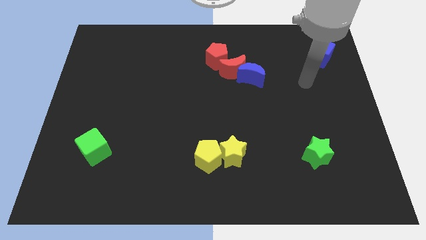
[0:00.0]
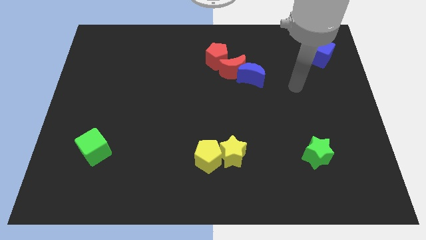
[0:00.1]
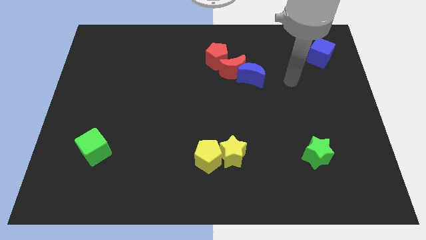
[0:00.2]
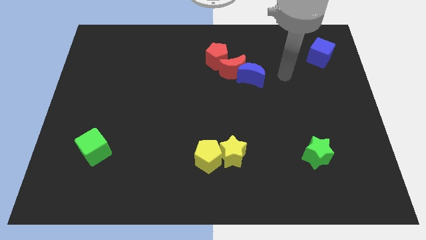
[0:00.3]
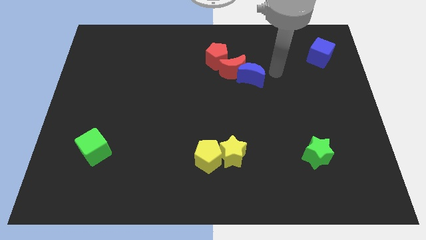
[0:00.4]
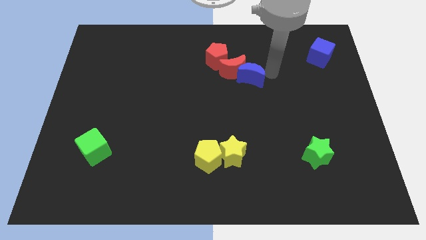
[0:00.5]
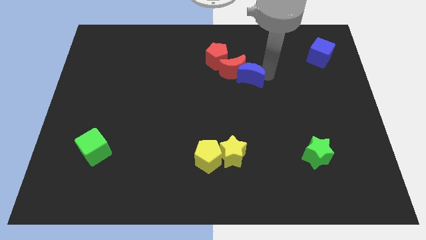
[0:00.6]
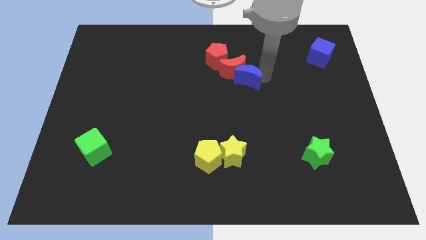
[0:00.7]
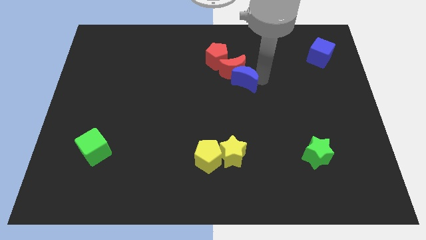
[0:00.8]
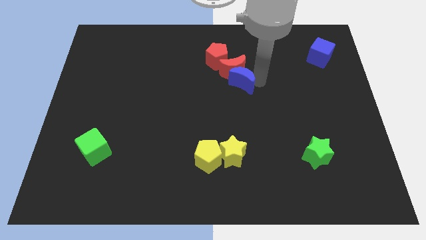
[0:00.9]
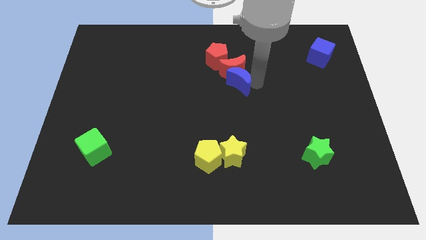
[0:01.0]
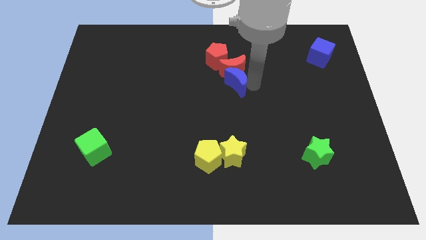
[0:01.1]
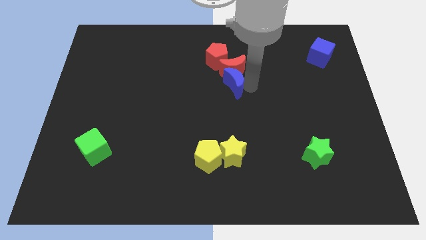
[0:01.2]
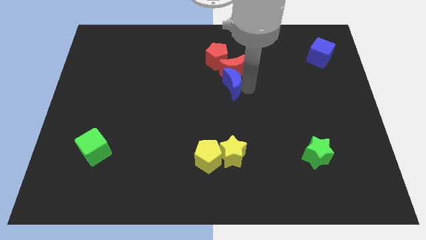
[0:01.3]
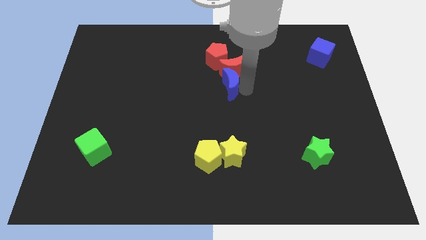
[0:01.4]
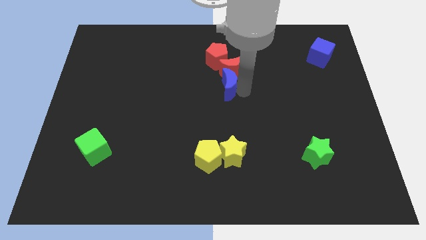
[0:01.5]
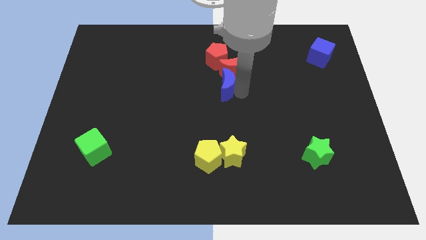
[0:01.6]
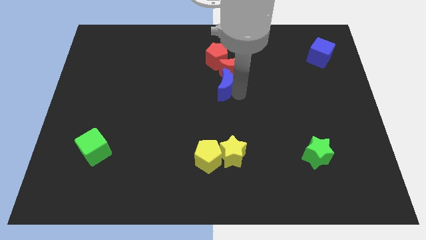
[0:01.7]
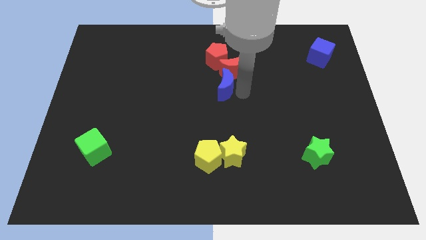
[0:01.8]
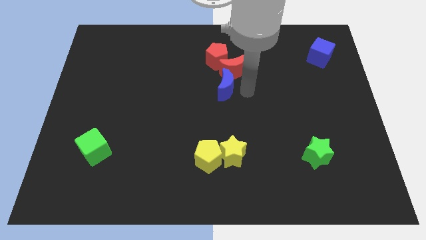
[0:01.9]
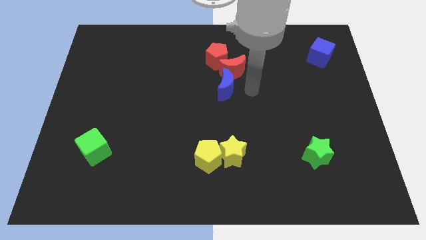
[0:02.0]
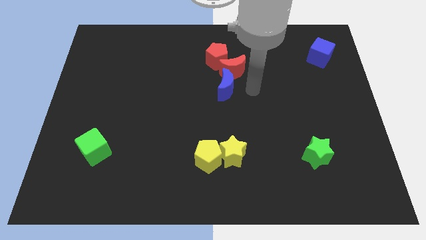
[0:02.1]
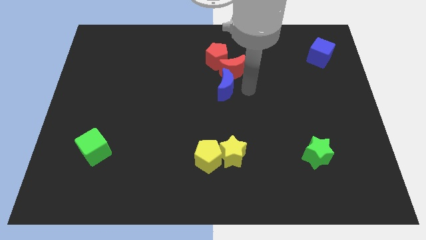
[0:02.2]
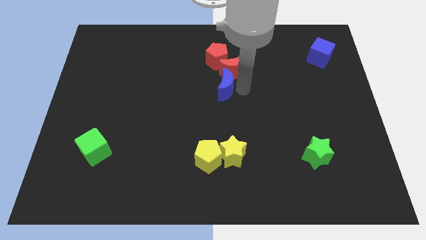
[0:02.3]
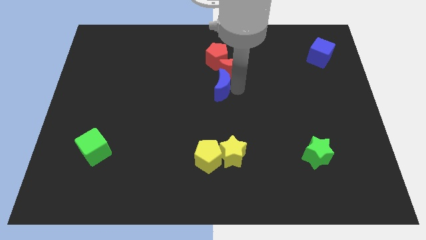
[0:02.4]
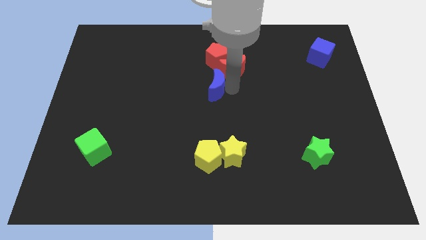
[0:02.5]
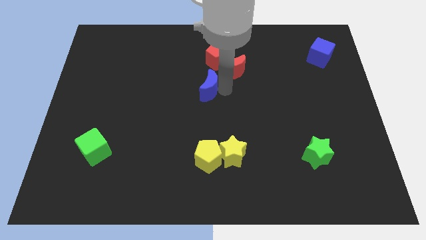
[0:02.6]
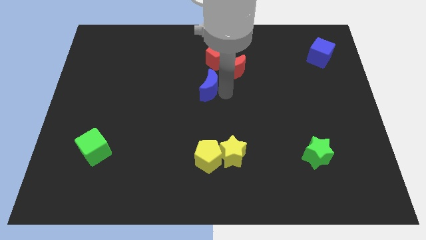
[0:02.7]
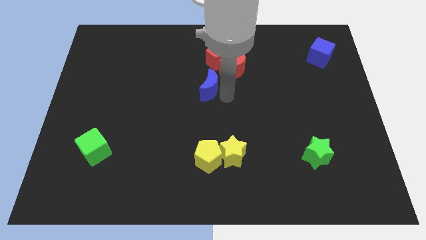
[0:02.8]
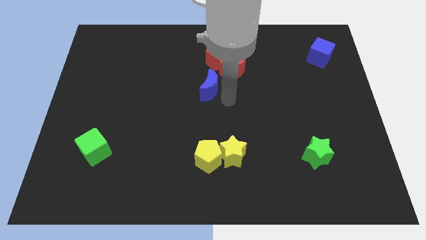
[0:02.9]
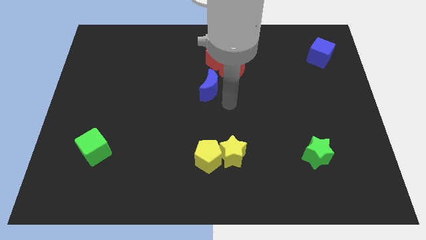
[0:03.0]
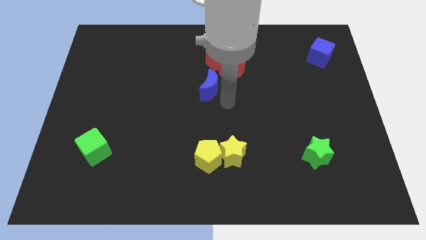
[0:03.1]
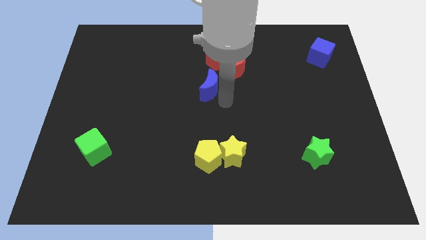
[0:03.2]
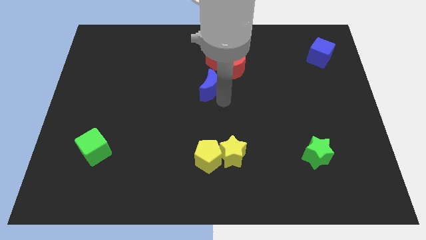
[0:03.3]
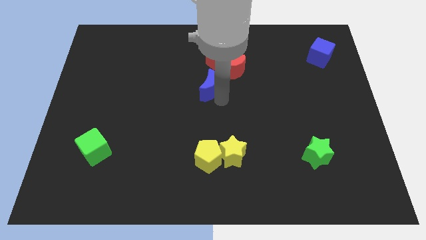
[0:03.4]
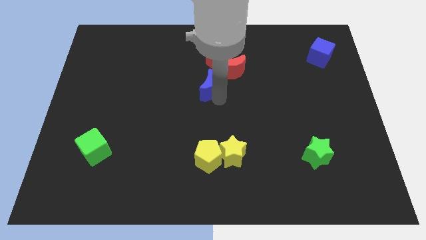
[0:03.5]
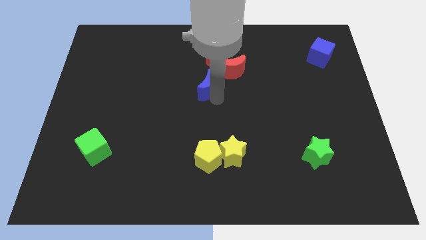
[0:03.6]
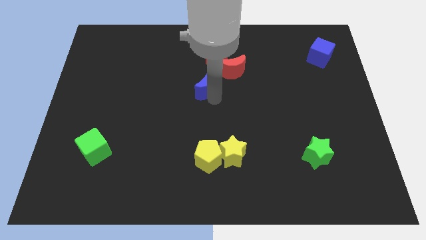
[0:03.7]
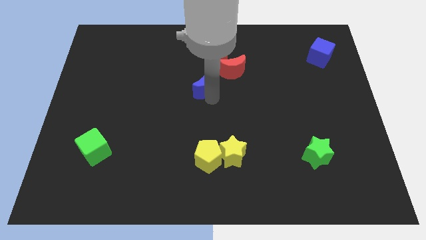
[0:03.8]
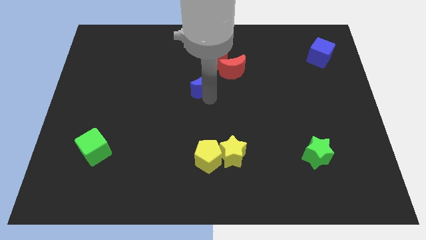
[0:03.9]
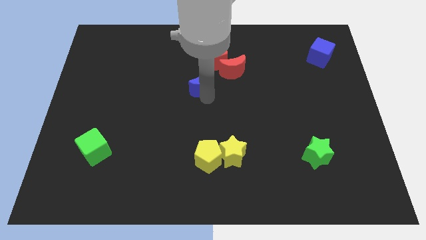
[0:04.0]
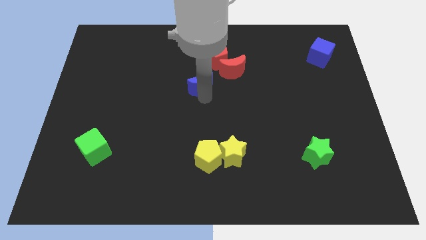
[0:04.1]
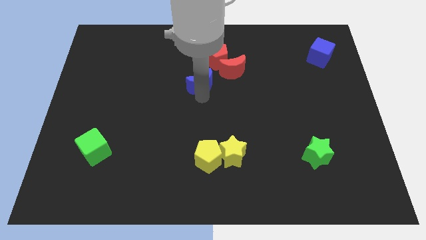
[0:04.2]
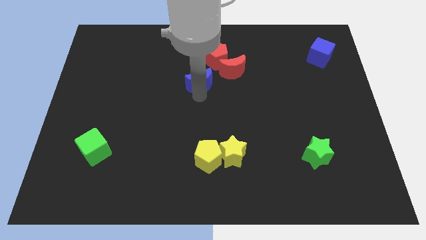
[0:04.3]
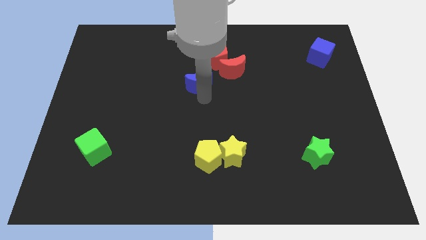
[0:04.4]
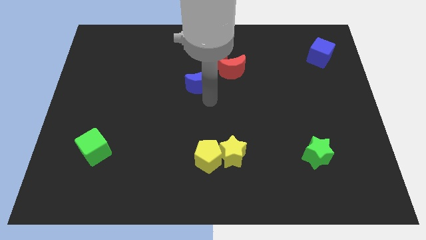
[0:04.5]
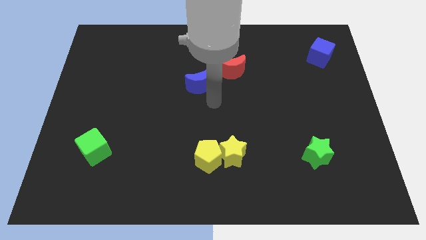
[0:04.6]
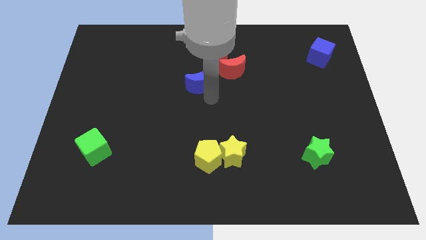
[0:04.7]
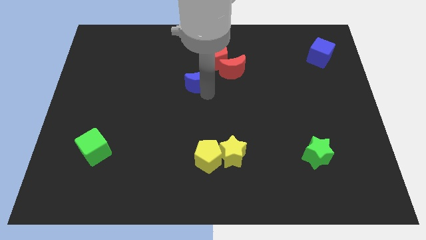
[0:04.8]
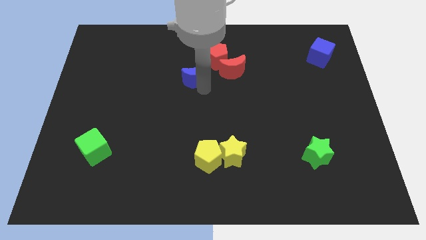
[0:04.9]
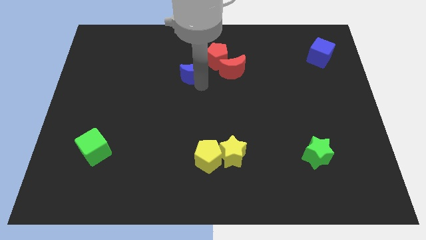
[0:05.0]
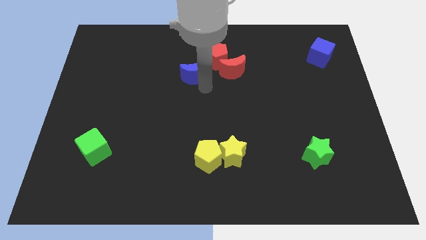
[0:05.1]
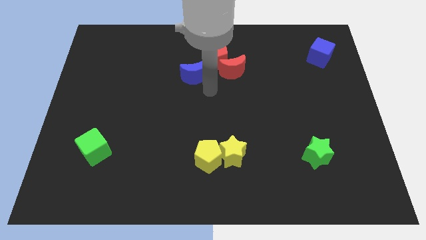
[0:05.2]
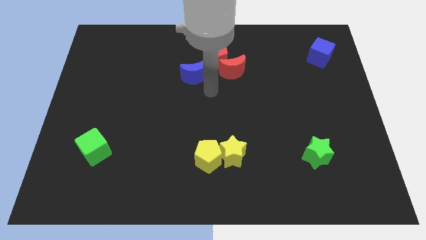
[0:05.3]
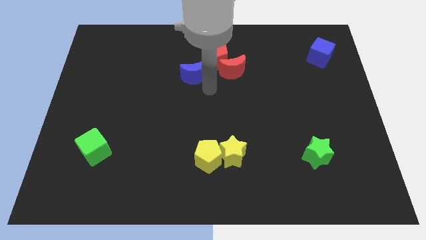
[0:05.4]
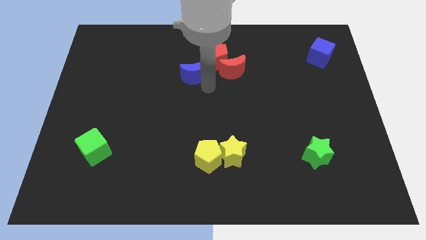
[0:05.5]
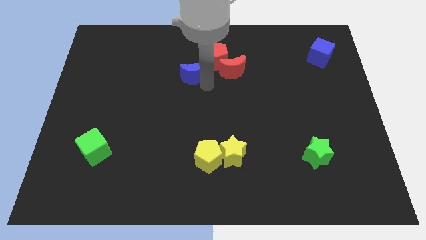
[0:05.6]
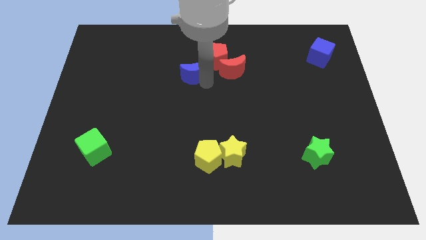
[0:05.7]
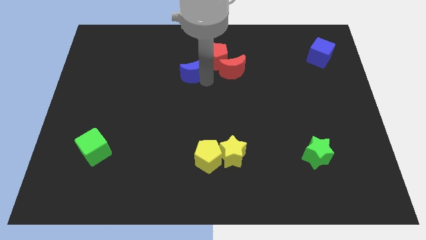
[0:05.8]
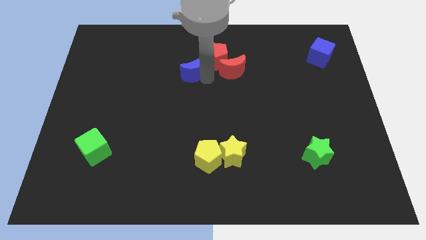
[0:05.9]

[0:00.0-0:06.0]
push the blue moon to the left side of the red pentagon
